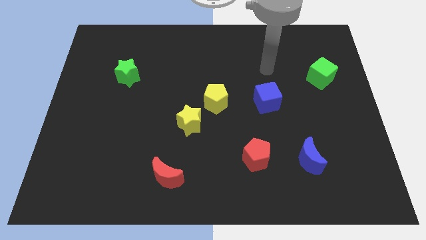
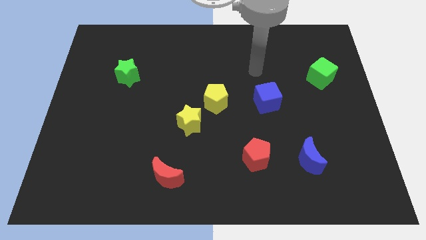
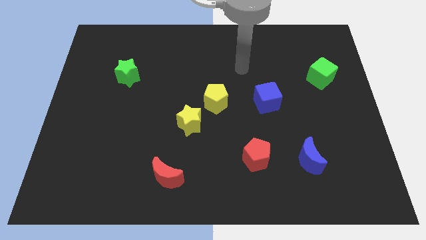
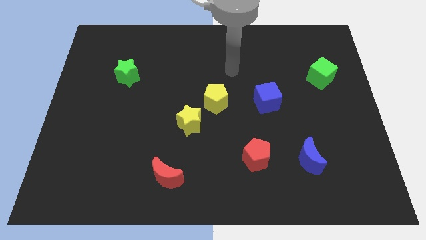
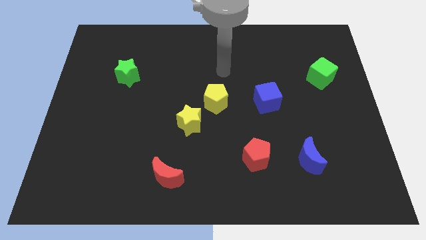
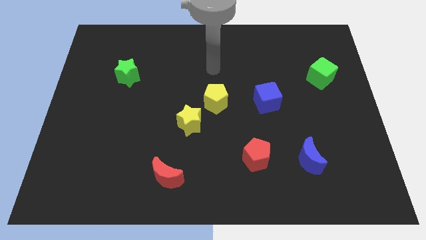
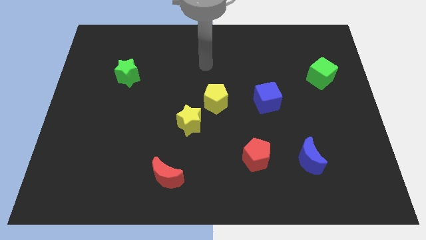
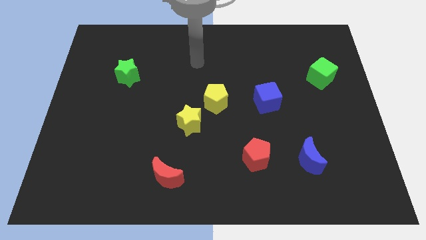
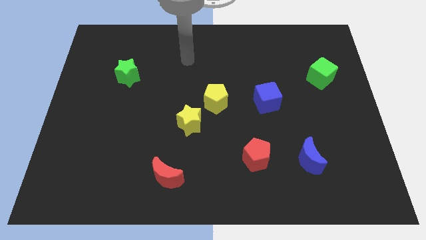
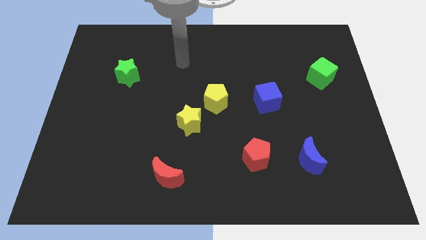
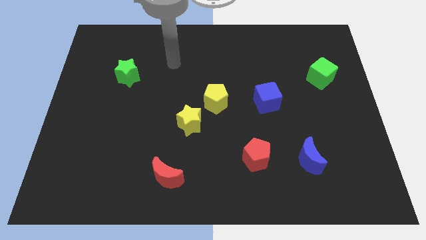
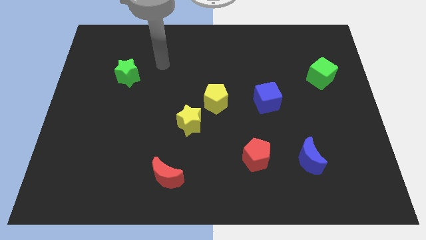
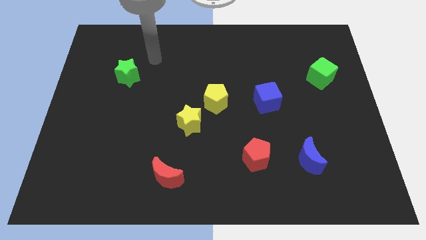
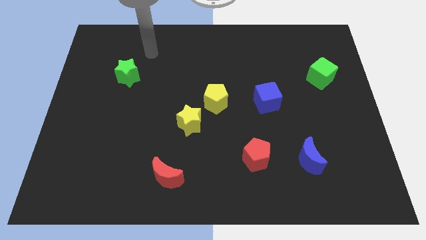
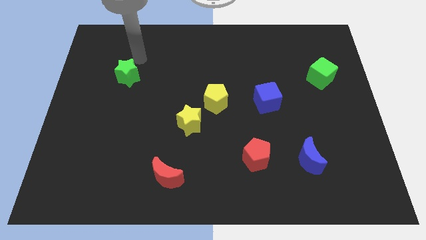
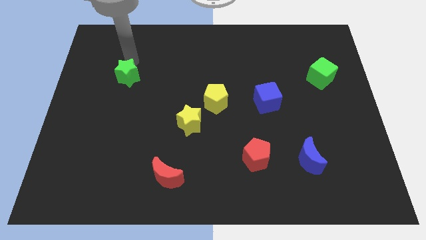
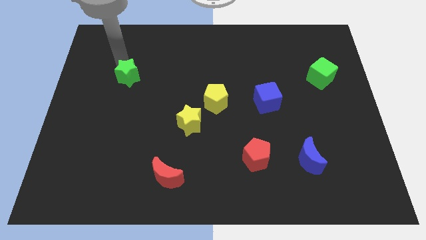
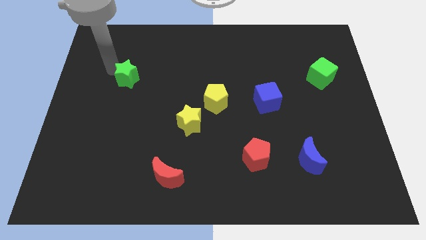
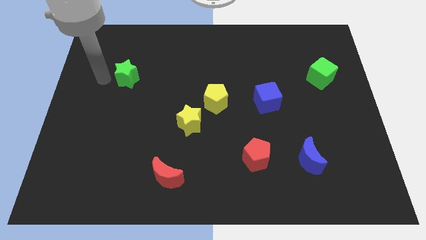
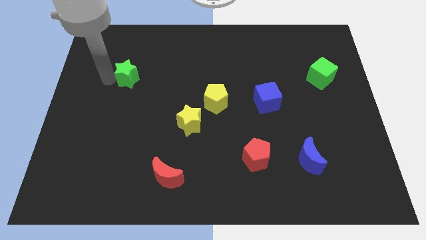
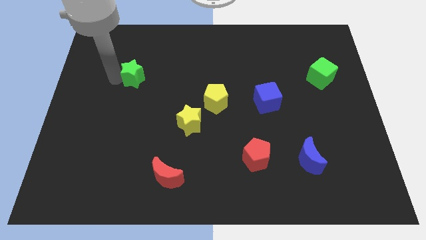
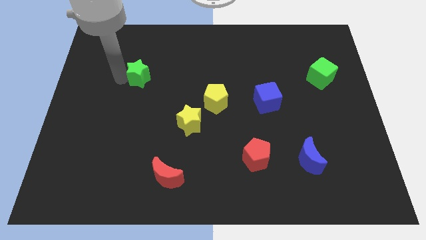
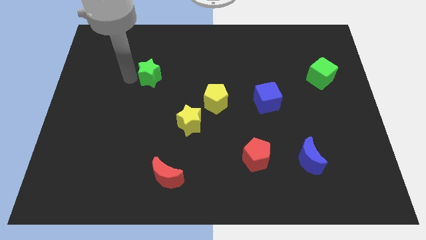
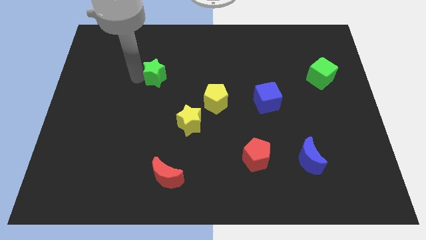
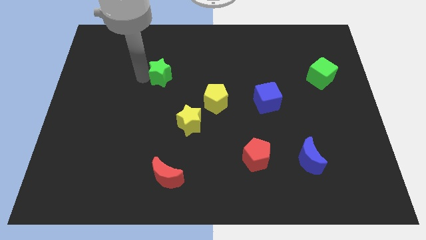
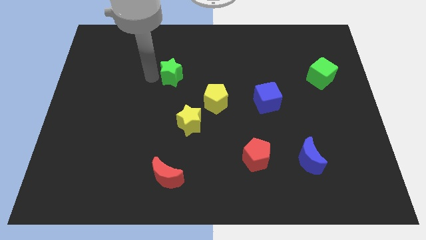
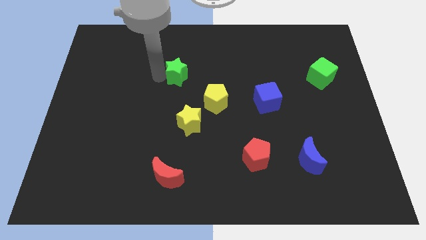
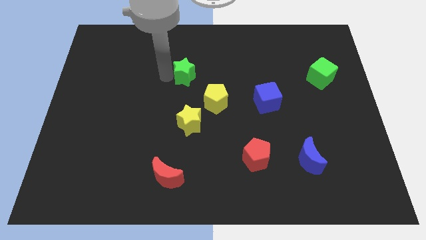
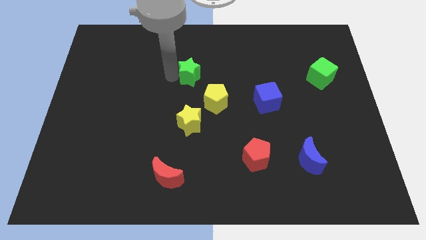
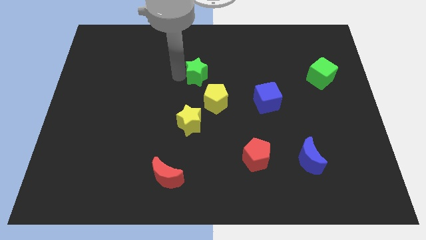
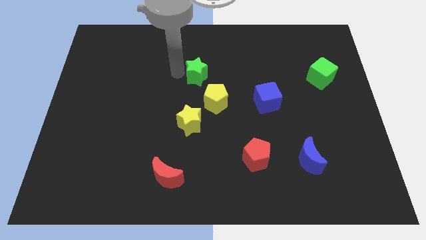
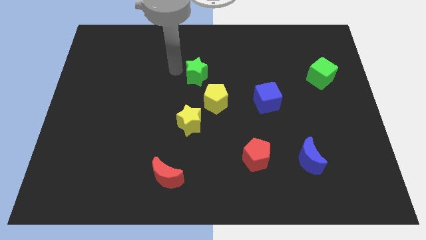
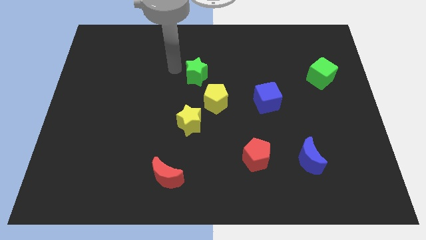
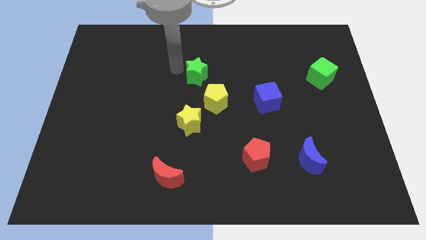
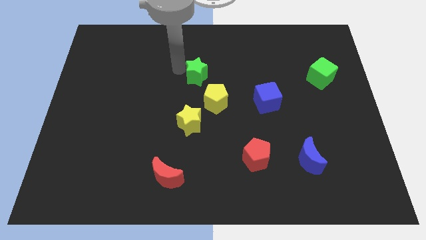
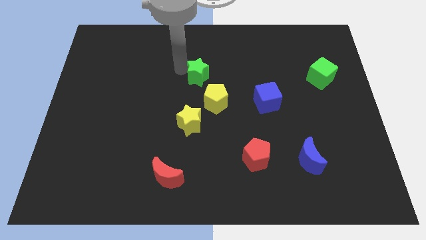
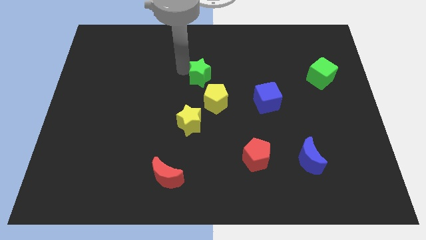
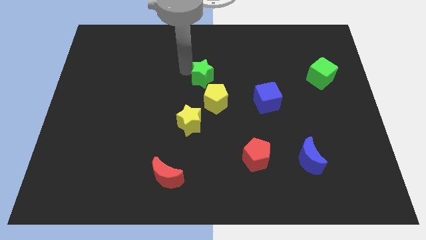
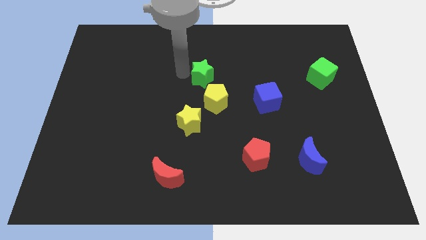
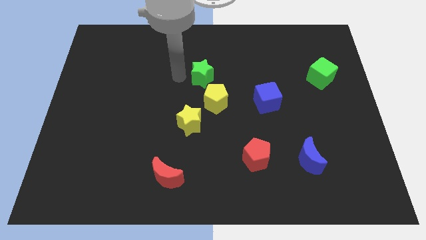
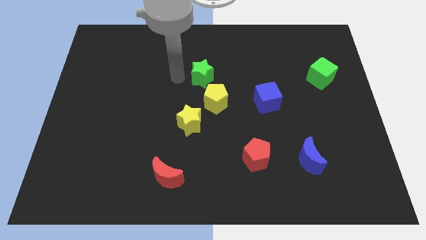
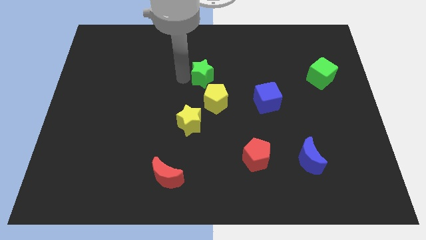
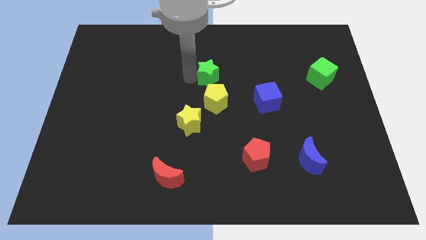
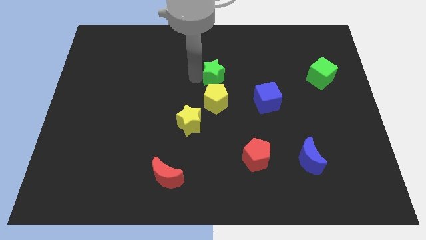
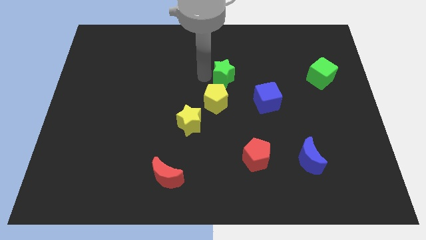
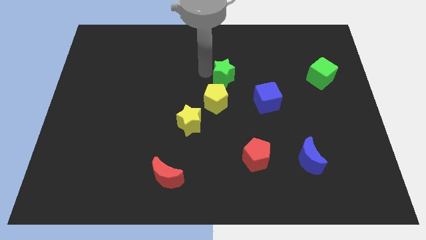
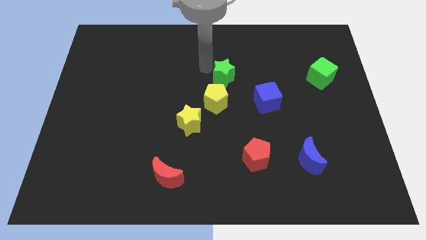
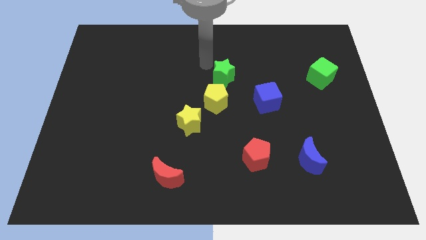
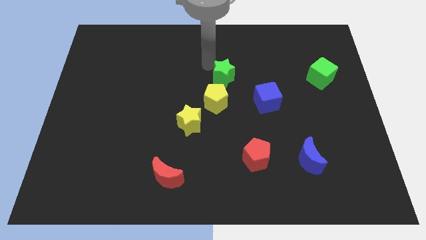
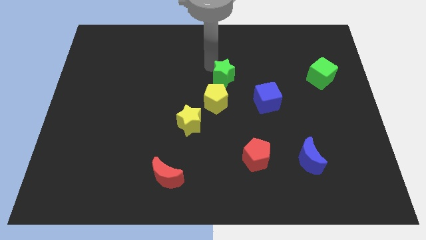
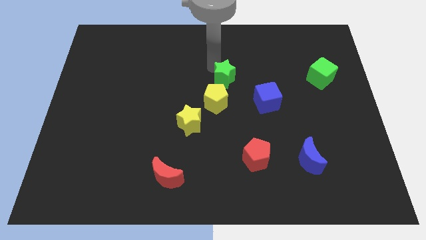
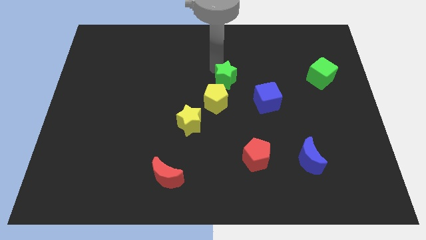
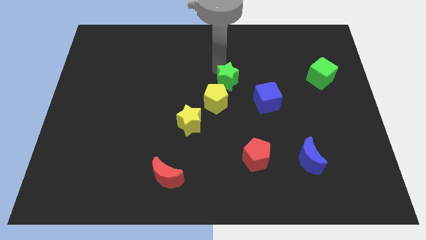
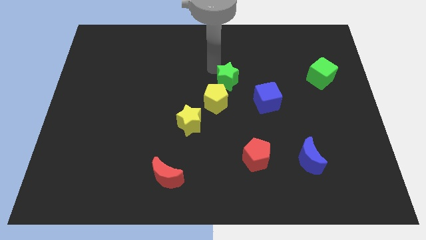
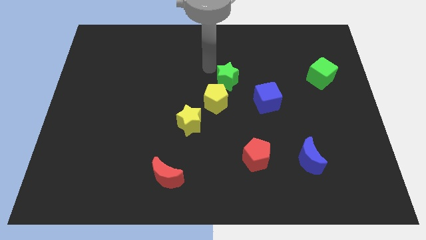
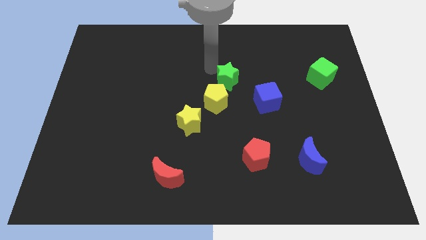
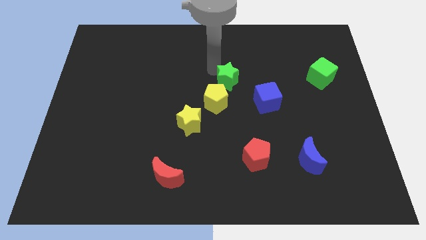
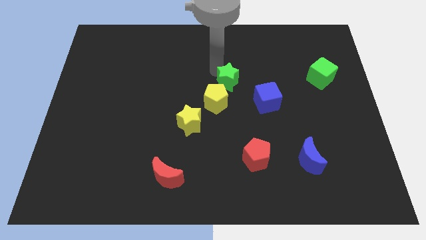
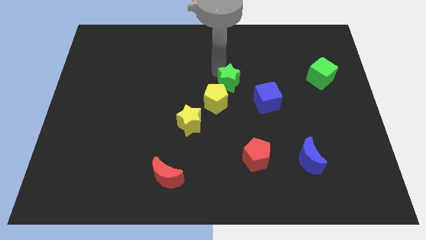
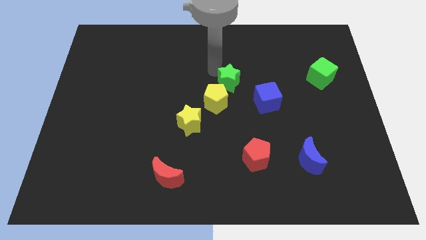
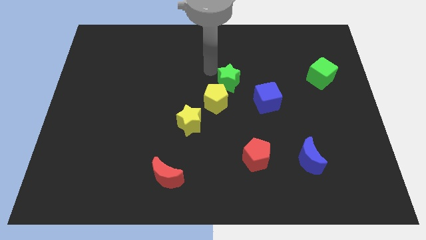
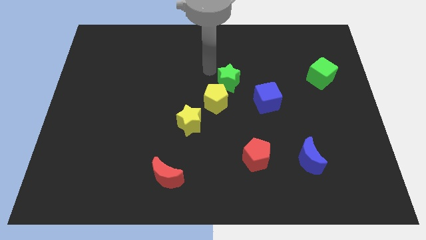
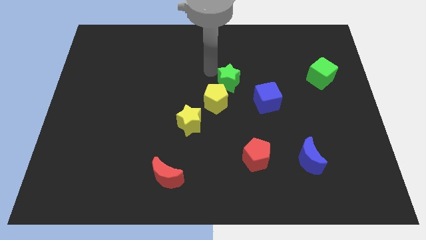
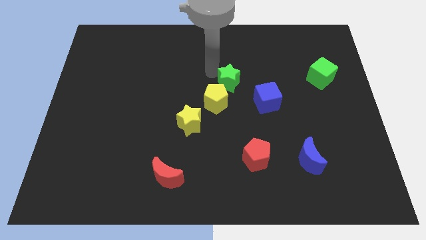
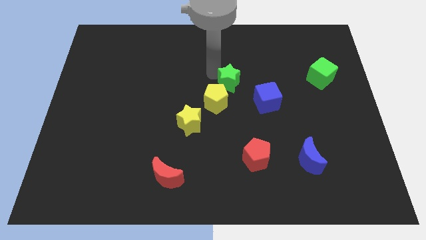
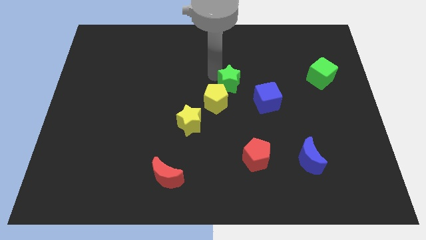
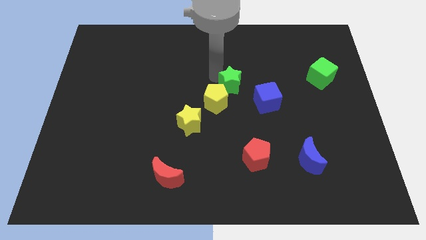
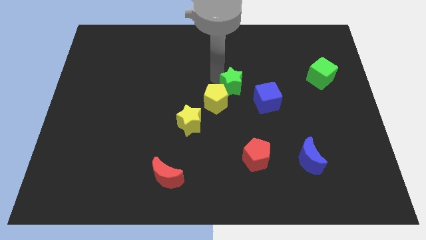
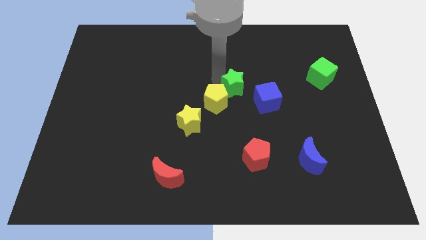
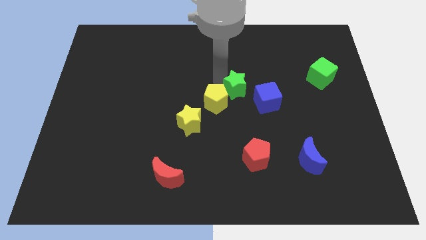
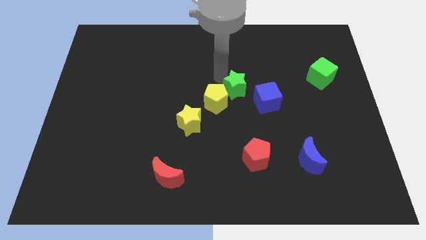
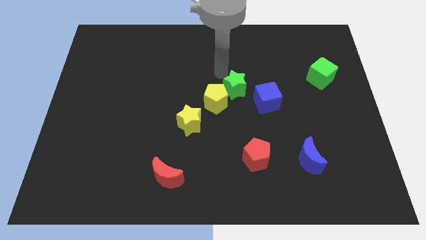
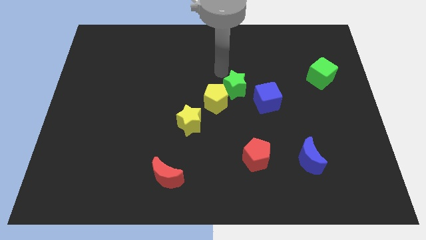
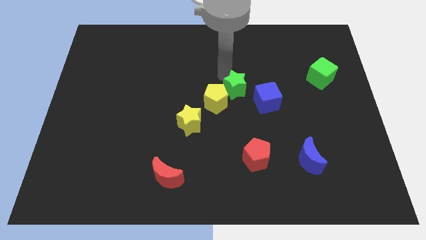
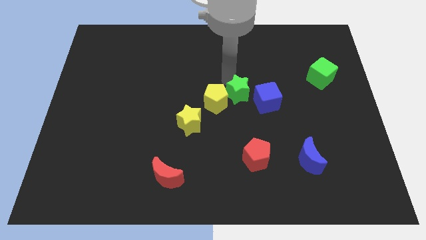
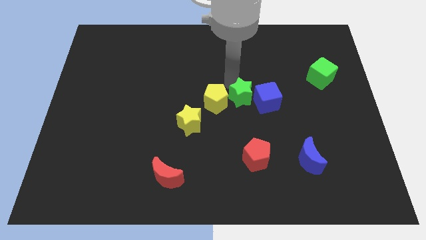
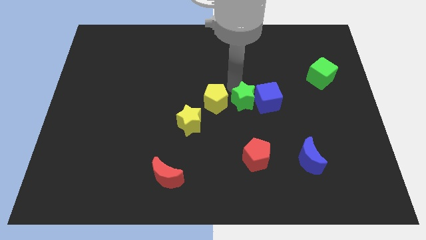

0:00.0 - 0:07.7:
move the green star to the top of the red pentagon
